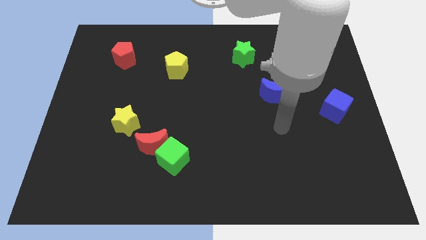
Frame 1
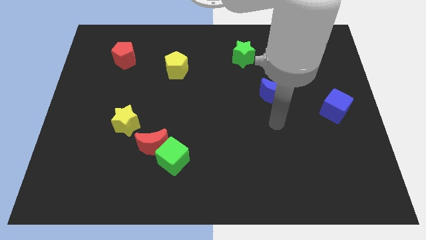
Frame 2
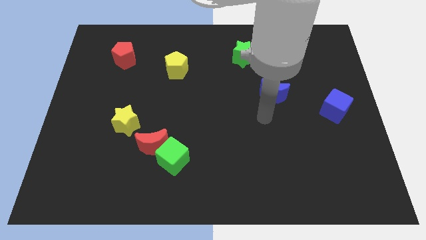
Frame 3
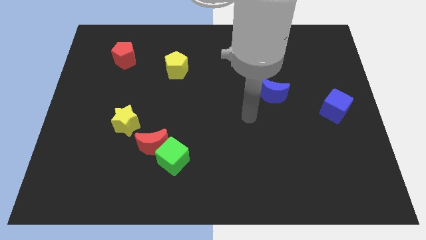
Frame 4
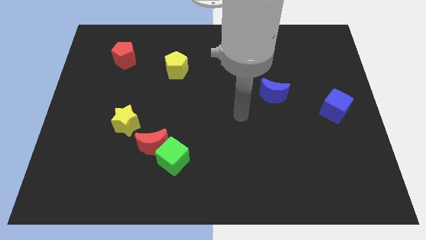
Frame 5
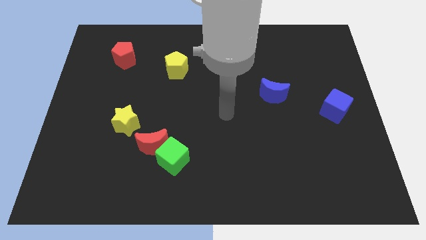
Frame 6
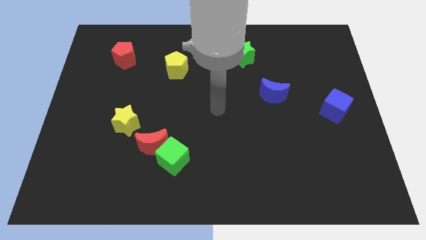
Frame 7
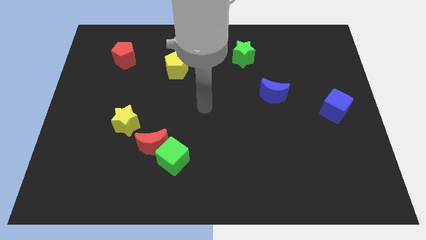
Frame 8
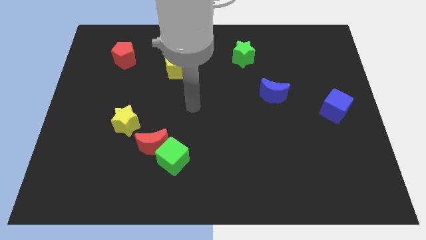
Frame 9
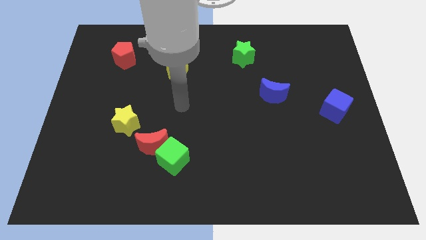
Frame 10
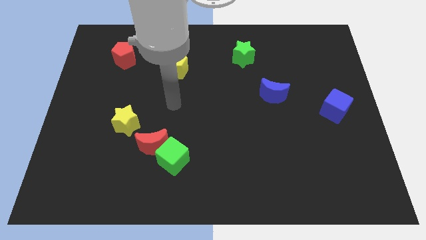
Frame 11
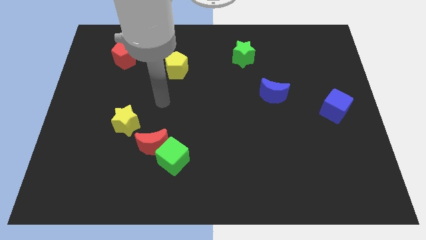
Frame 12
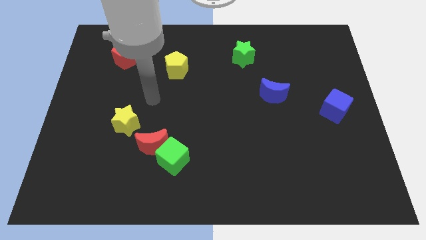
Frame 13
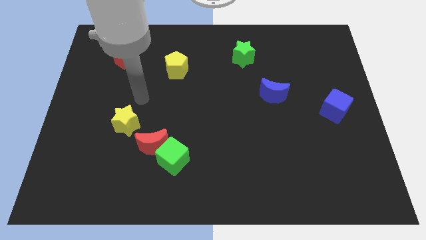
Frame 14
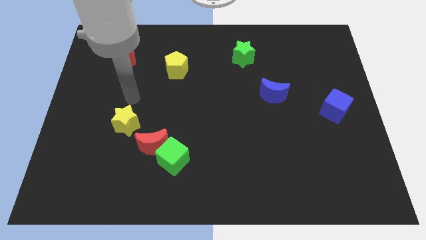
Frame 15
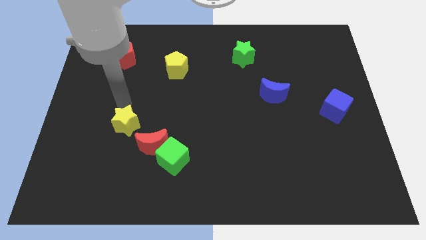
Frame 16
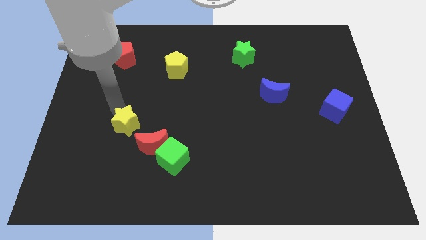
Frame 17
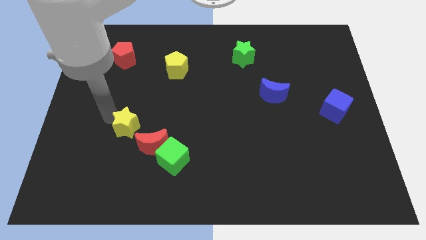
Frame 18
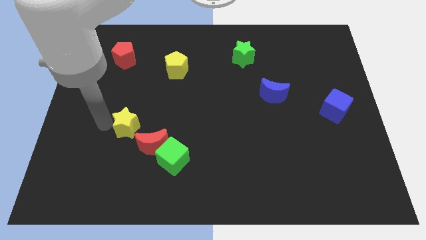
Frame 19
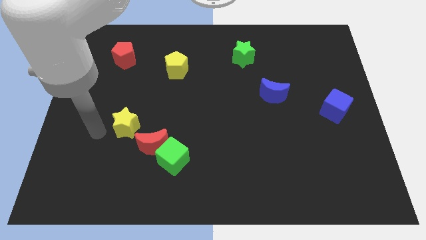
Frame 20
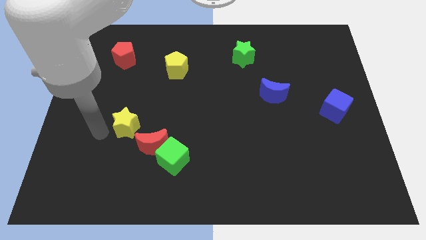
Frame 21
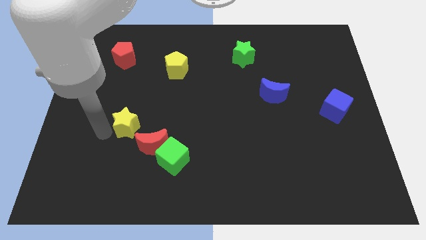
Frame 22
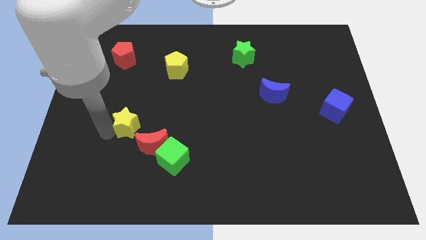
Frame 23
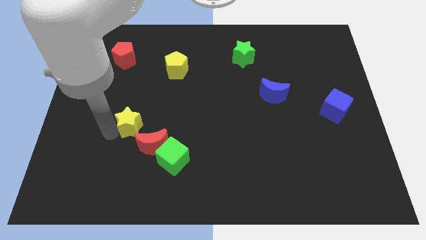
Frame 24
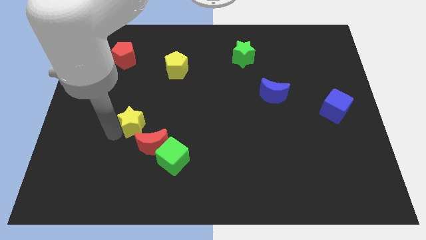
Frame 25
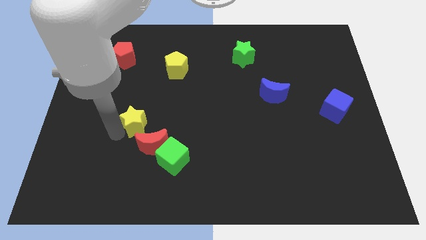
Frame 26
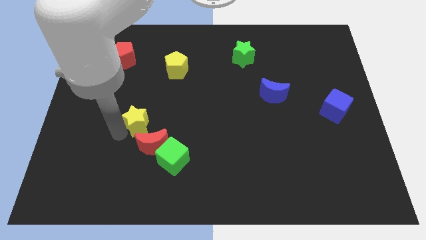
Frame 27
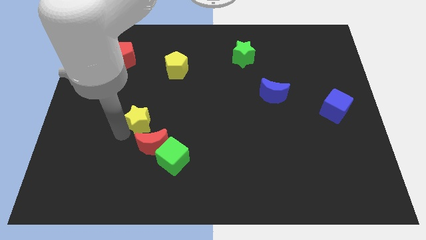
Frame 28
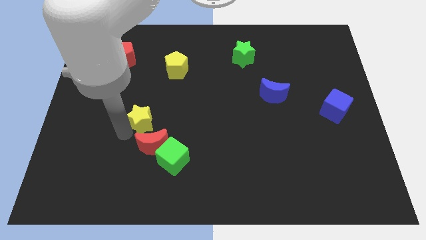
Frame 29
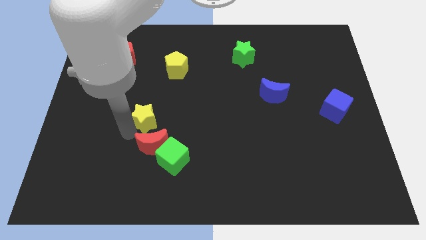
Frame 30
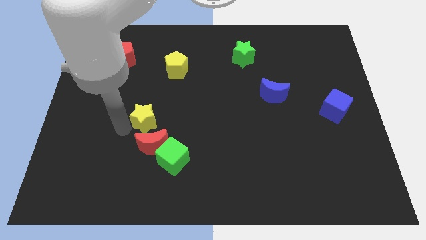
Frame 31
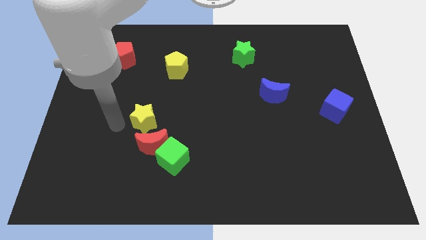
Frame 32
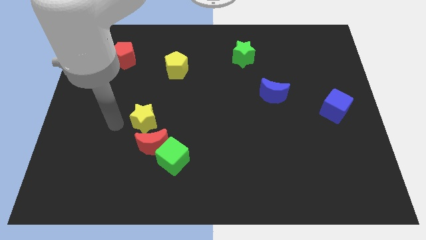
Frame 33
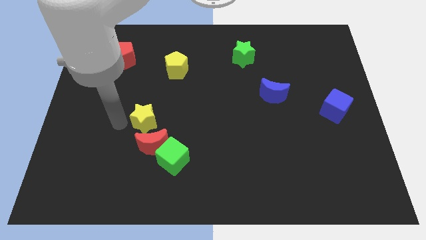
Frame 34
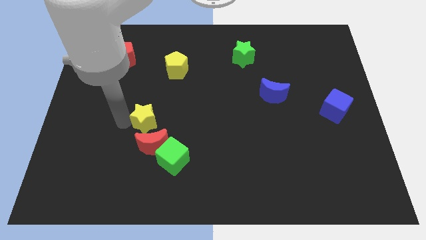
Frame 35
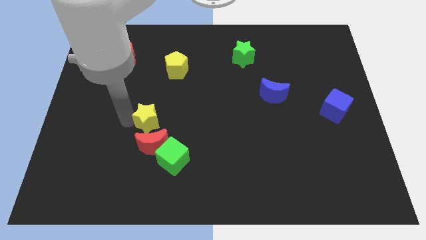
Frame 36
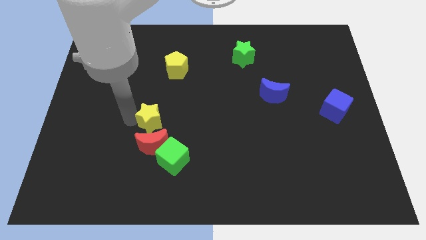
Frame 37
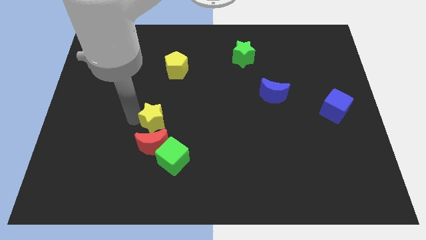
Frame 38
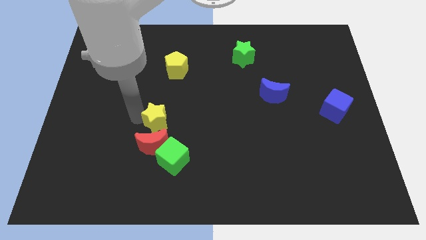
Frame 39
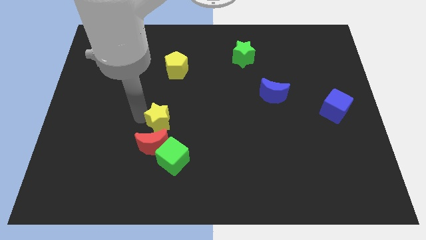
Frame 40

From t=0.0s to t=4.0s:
push the yellow star right somewhat

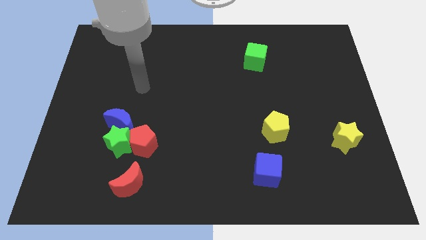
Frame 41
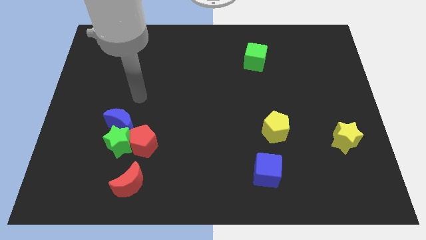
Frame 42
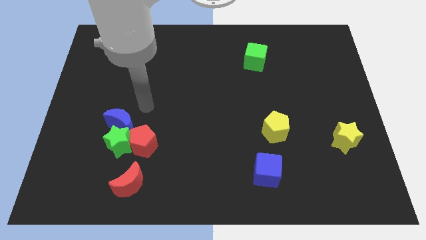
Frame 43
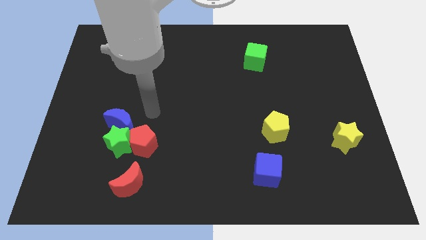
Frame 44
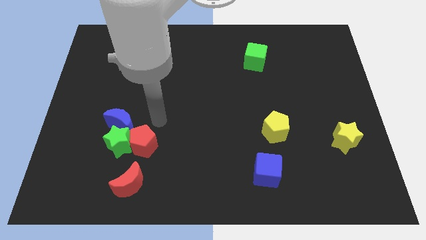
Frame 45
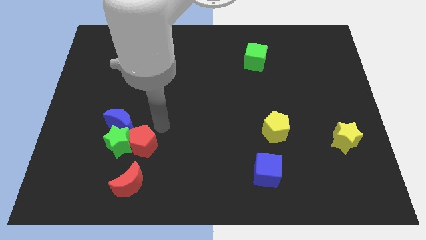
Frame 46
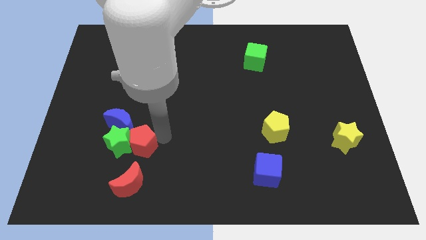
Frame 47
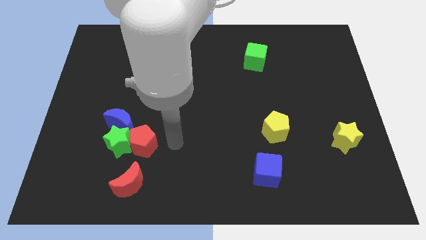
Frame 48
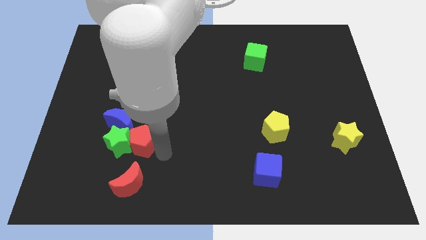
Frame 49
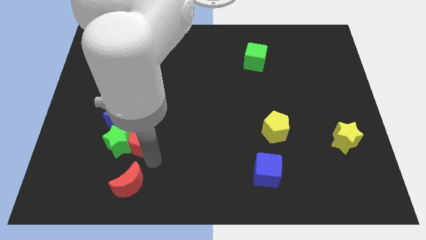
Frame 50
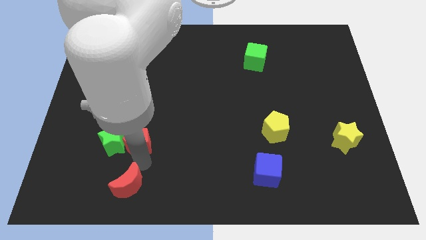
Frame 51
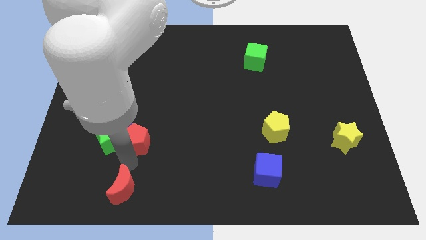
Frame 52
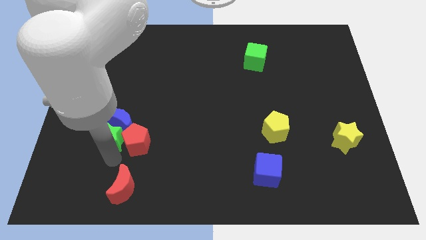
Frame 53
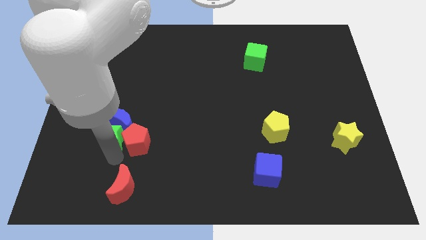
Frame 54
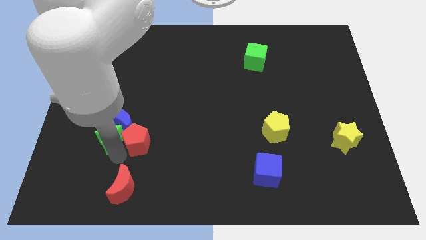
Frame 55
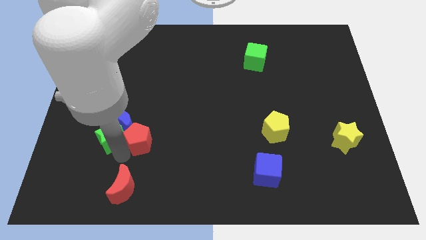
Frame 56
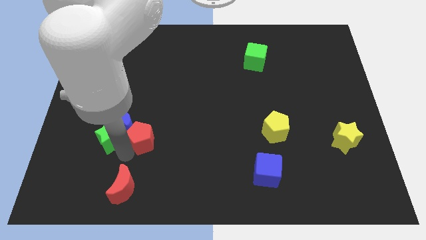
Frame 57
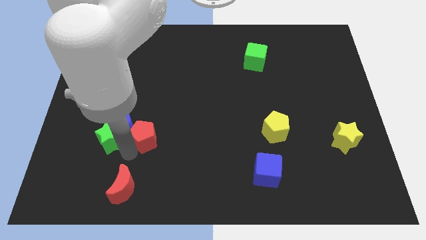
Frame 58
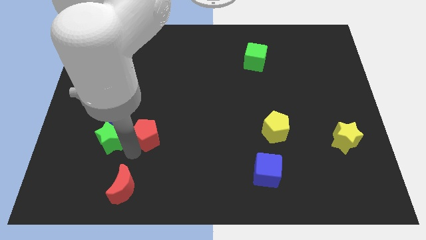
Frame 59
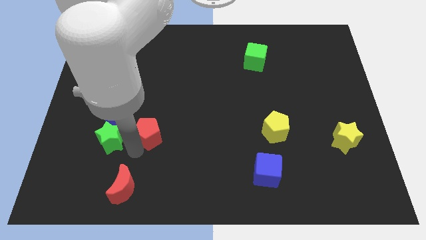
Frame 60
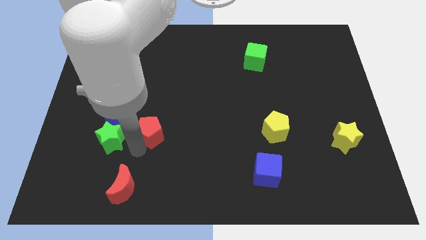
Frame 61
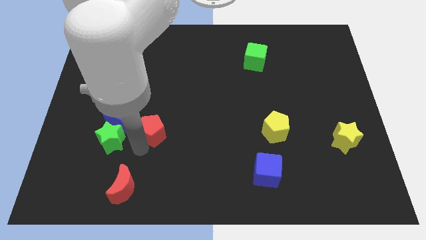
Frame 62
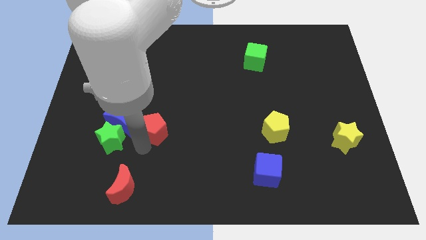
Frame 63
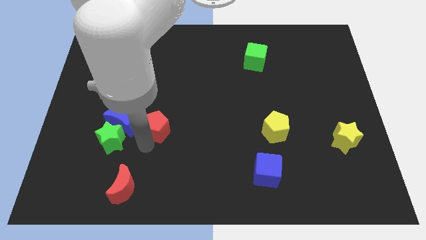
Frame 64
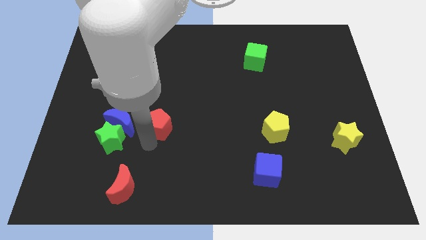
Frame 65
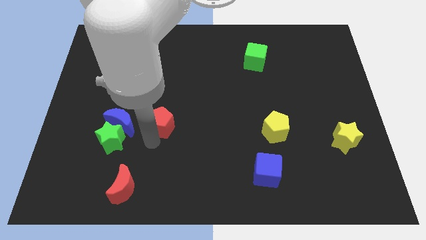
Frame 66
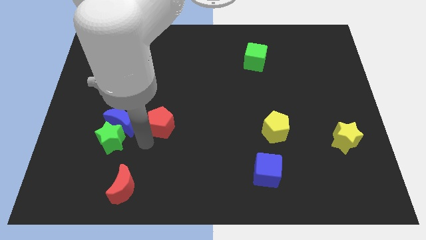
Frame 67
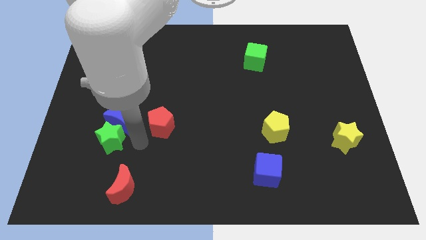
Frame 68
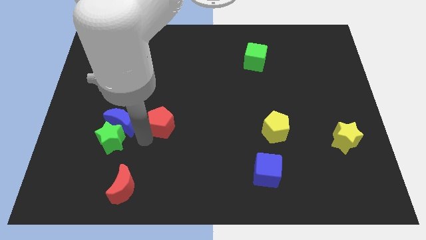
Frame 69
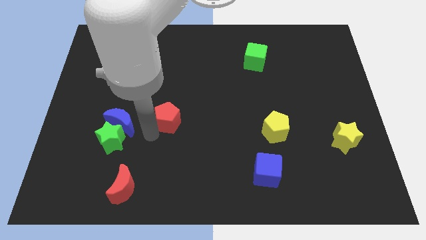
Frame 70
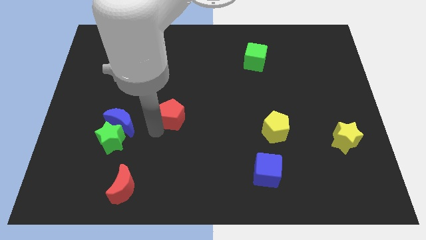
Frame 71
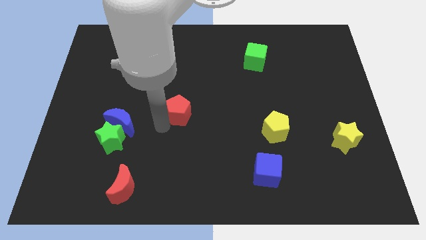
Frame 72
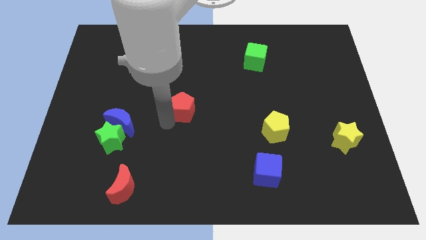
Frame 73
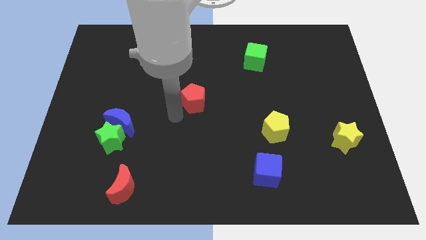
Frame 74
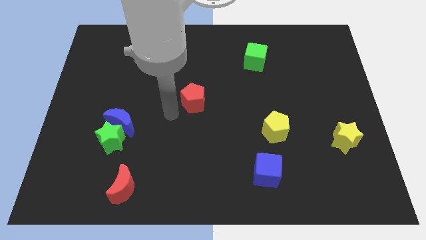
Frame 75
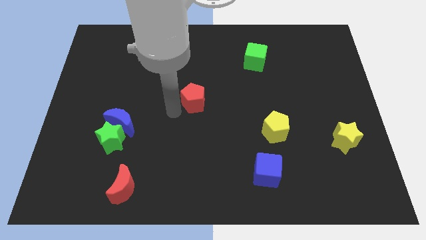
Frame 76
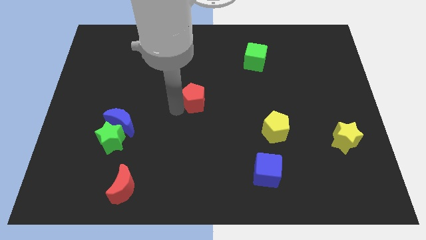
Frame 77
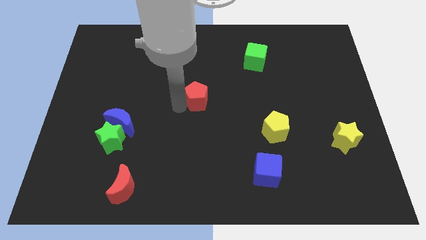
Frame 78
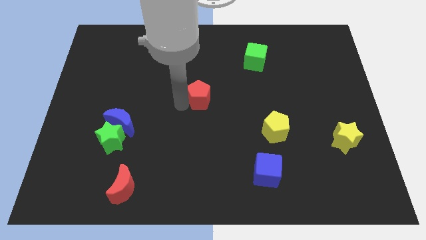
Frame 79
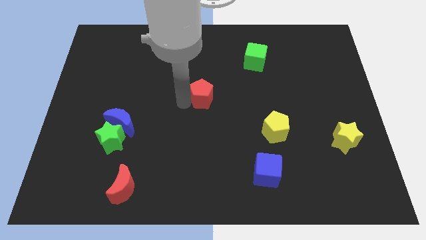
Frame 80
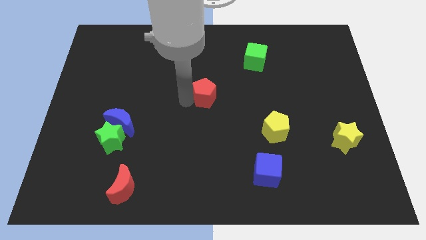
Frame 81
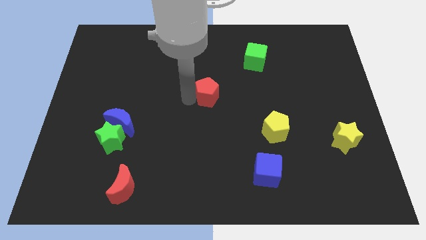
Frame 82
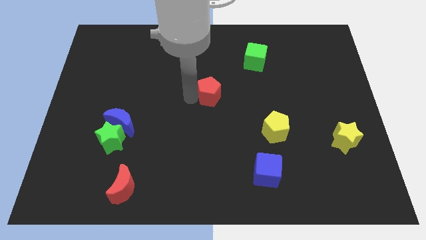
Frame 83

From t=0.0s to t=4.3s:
push the red pentagon upwards and to the right diagonally

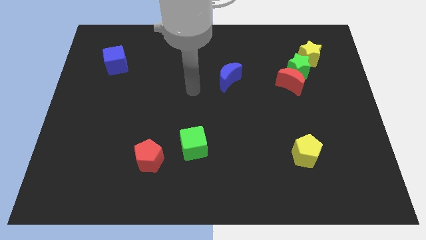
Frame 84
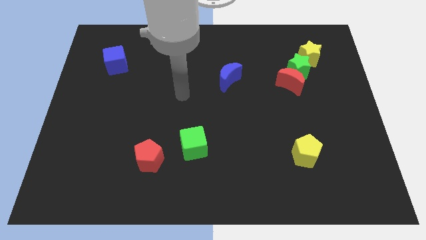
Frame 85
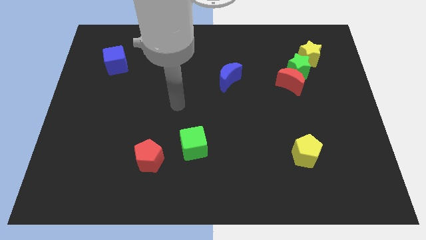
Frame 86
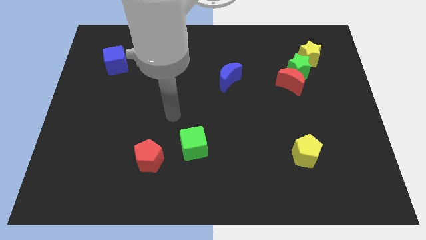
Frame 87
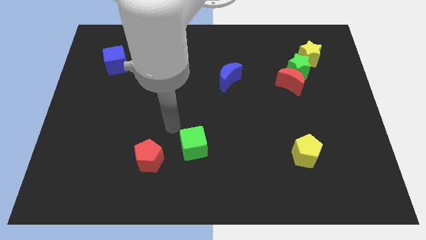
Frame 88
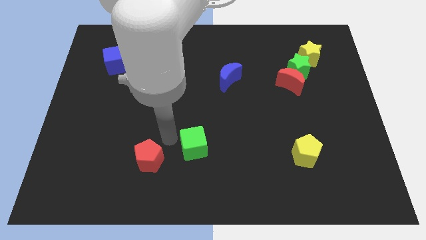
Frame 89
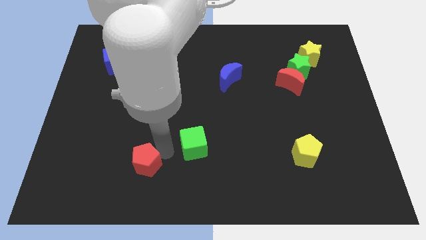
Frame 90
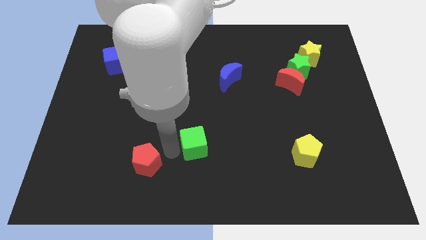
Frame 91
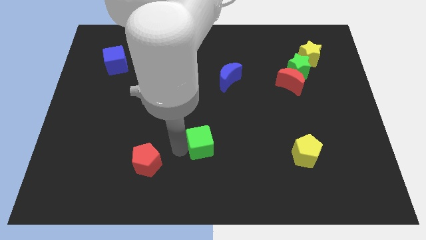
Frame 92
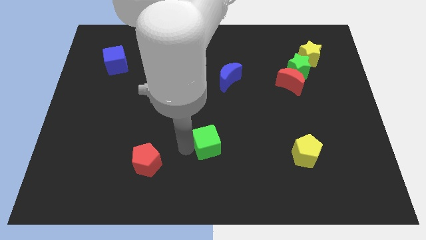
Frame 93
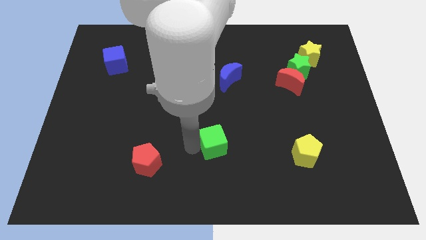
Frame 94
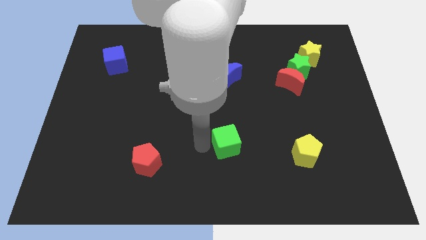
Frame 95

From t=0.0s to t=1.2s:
push the green cube a bit to the right
